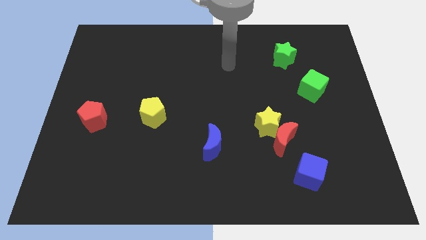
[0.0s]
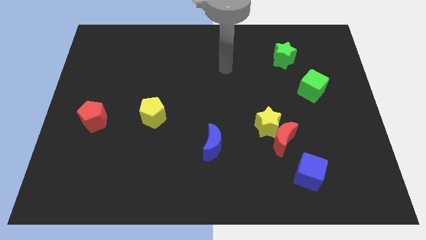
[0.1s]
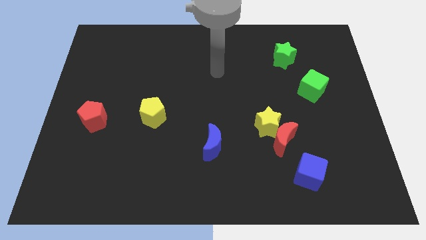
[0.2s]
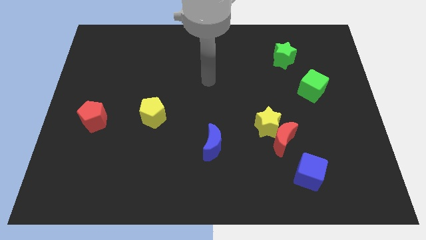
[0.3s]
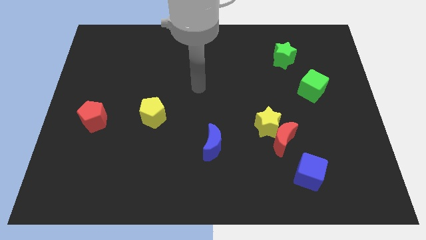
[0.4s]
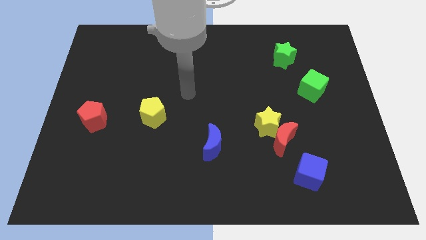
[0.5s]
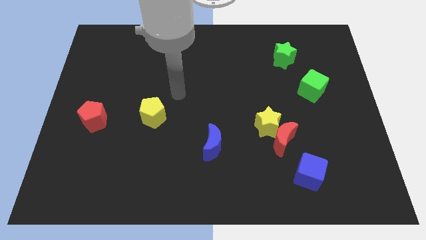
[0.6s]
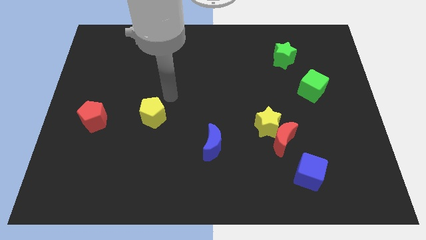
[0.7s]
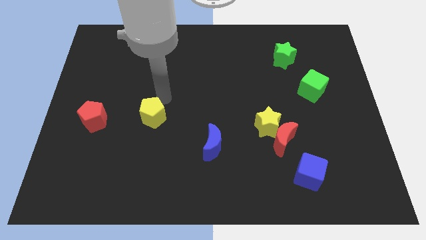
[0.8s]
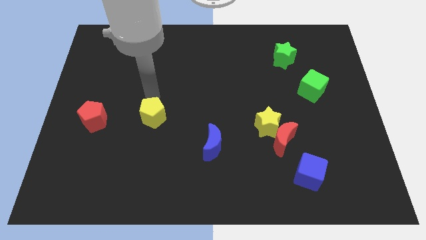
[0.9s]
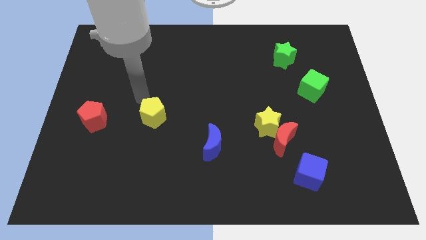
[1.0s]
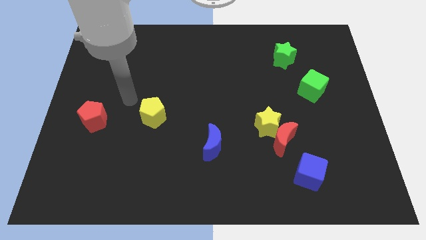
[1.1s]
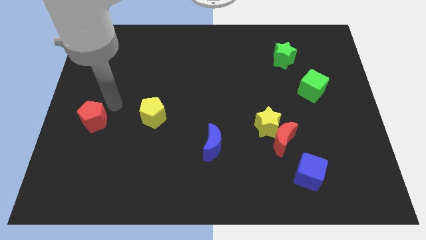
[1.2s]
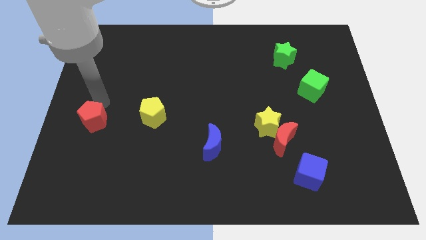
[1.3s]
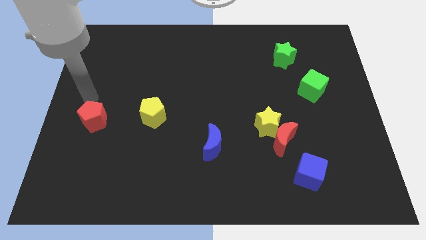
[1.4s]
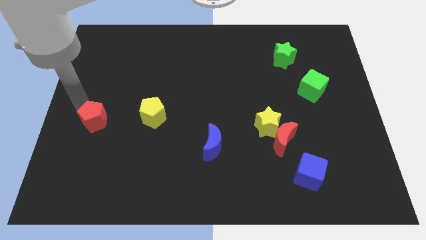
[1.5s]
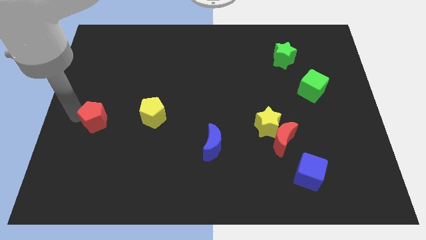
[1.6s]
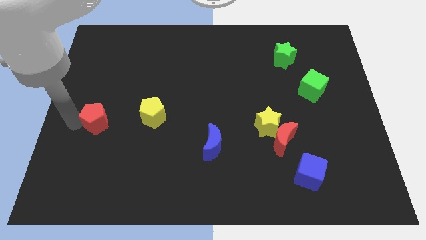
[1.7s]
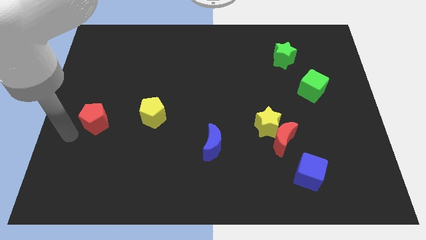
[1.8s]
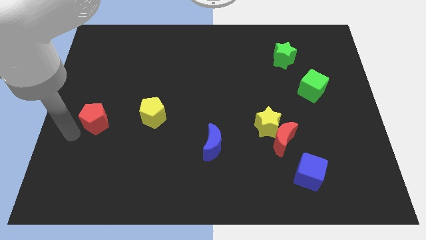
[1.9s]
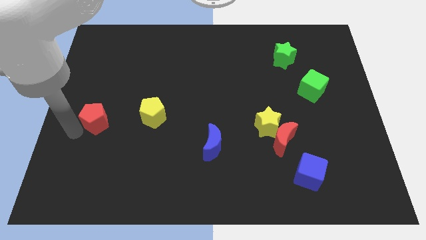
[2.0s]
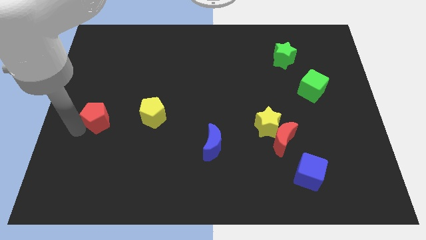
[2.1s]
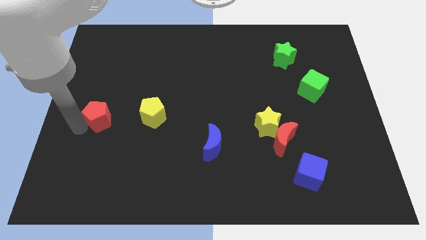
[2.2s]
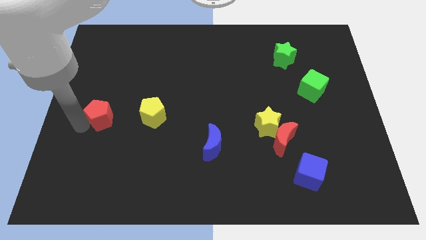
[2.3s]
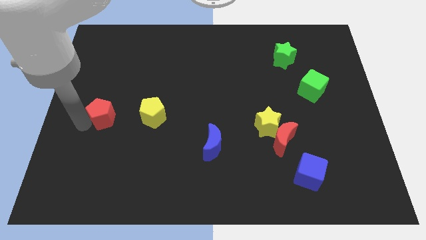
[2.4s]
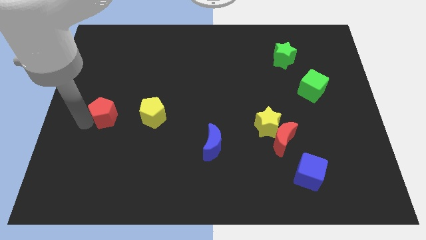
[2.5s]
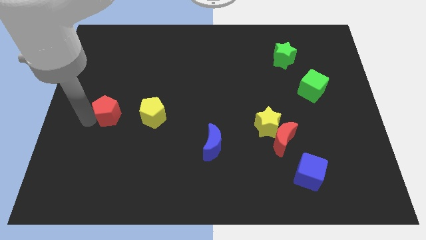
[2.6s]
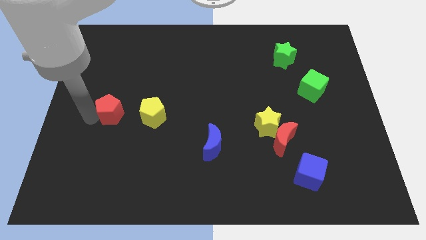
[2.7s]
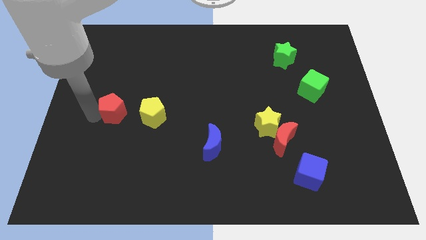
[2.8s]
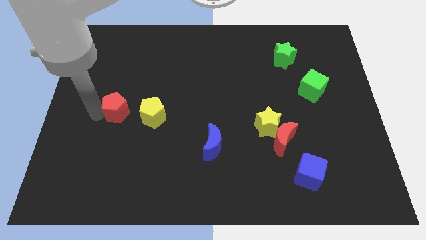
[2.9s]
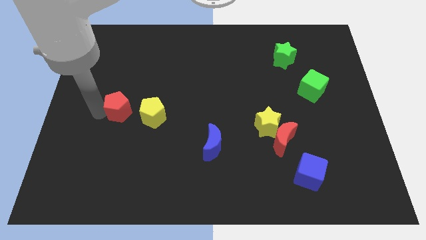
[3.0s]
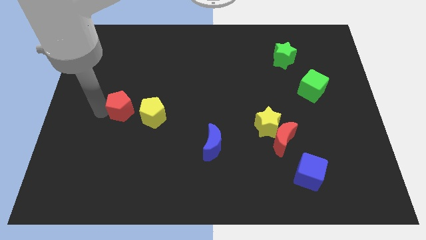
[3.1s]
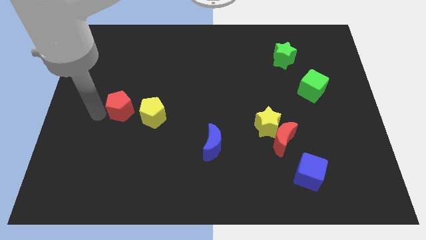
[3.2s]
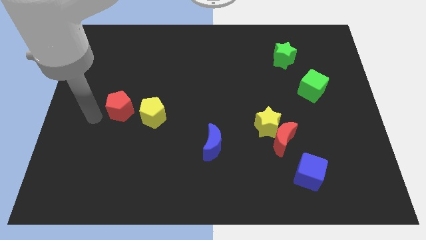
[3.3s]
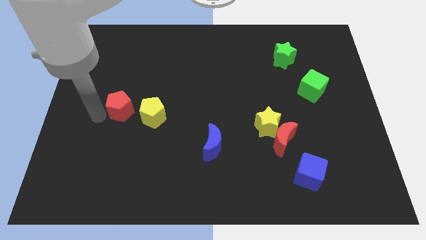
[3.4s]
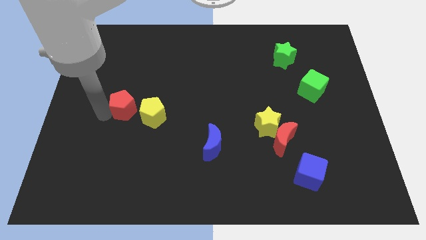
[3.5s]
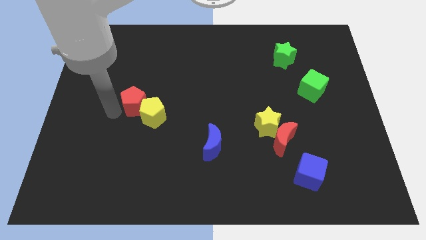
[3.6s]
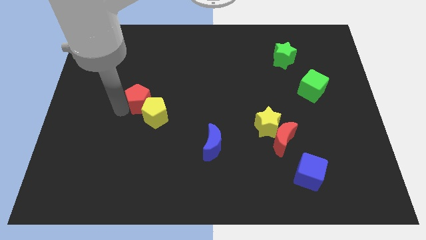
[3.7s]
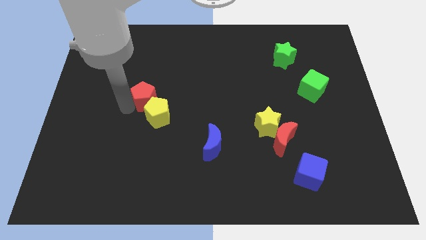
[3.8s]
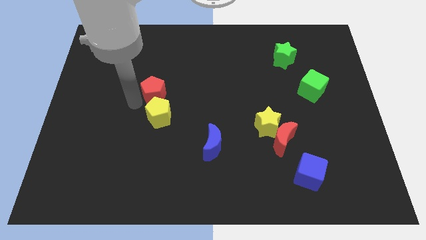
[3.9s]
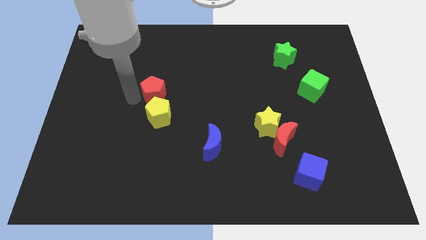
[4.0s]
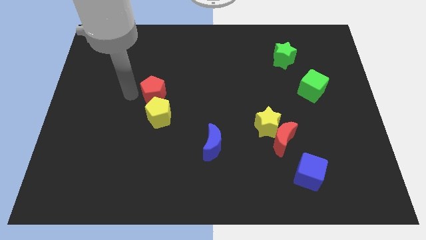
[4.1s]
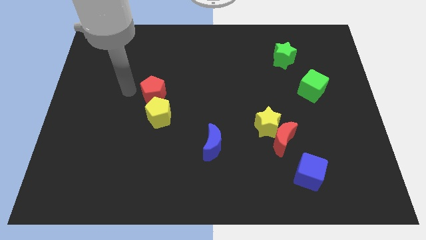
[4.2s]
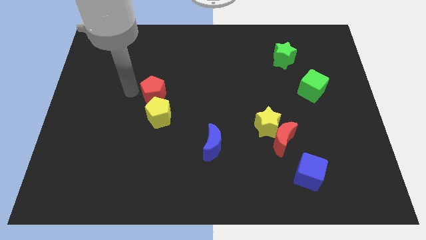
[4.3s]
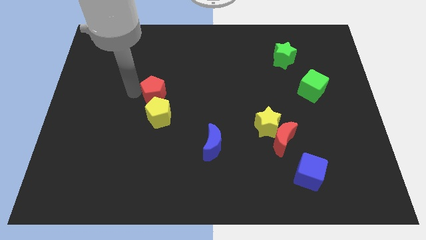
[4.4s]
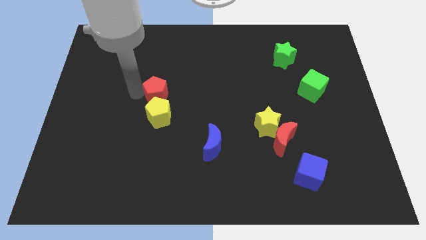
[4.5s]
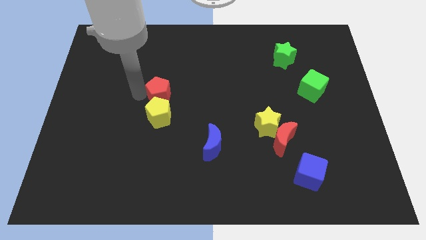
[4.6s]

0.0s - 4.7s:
push the red pentagon diagonally up and to the right of the yellow pentagon
